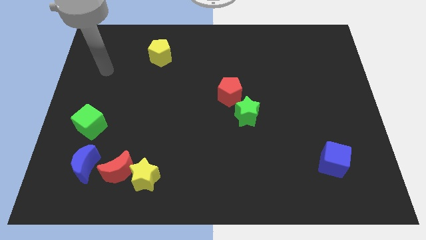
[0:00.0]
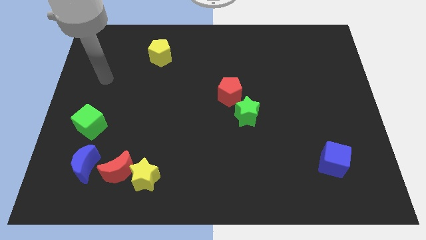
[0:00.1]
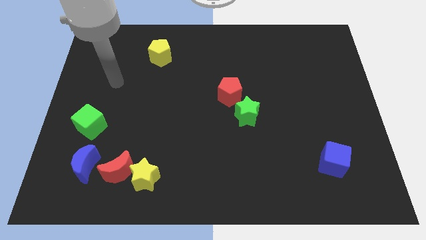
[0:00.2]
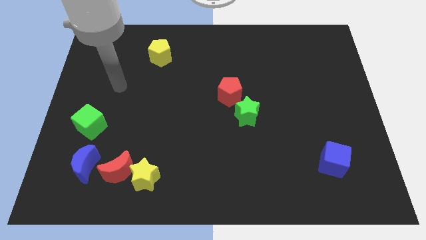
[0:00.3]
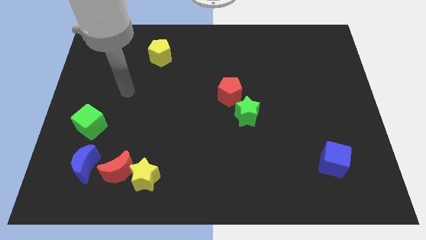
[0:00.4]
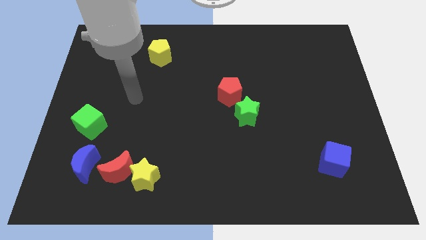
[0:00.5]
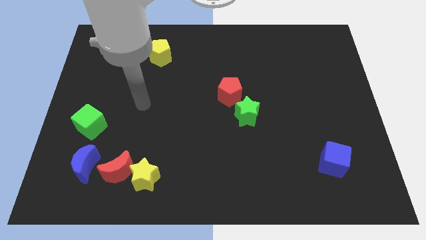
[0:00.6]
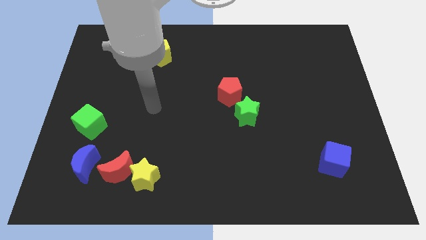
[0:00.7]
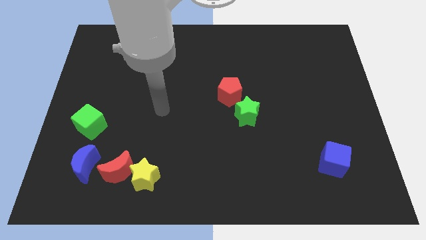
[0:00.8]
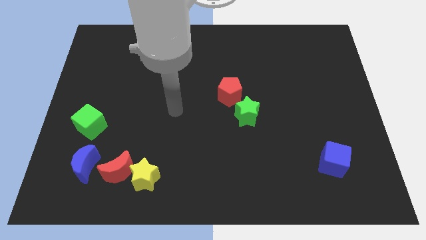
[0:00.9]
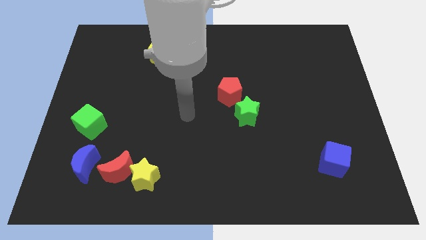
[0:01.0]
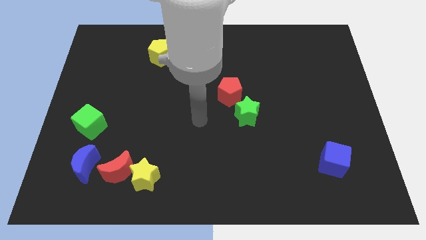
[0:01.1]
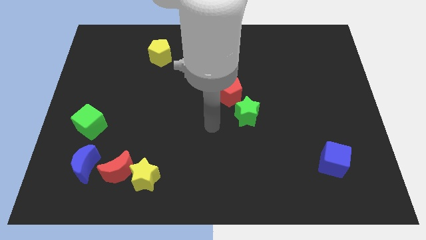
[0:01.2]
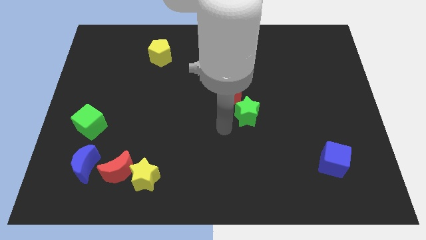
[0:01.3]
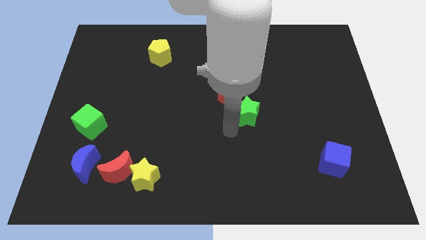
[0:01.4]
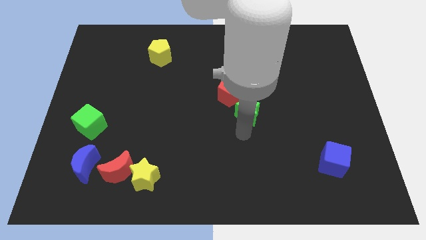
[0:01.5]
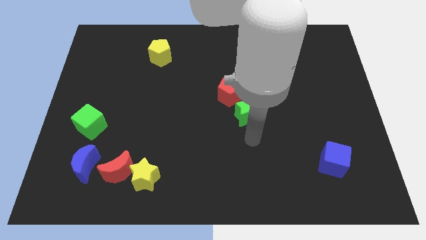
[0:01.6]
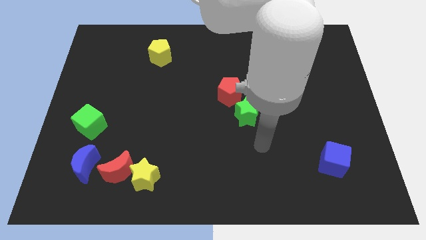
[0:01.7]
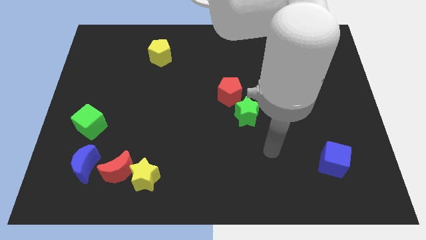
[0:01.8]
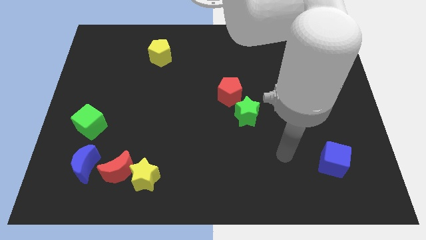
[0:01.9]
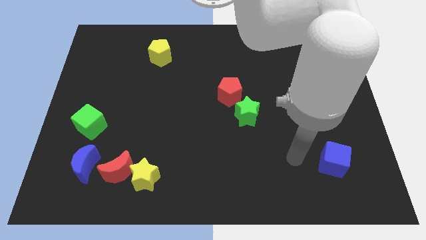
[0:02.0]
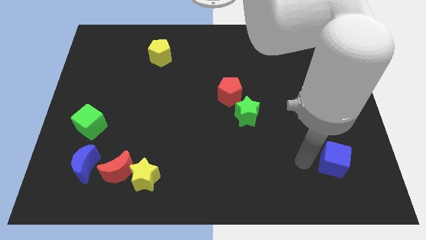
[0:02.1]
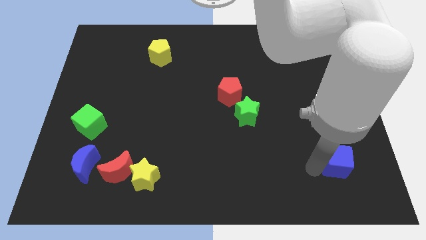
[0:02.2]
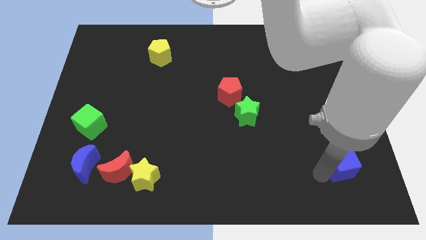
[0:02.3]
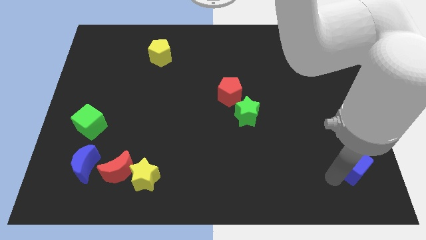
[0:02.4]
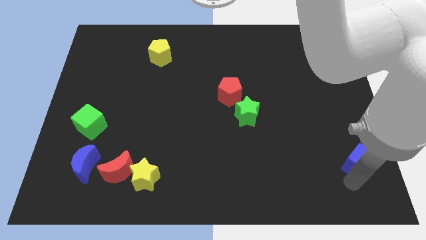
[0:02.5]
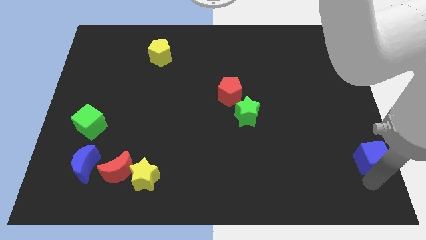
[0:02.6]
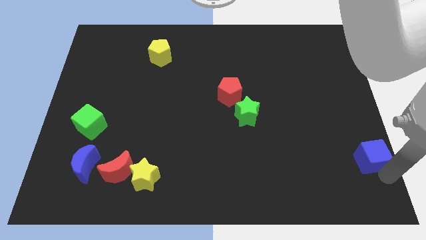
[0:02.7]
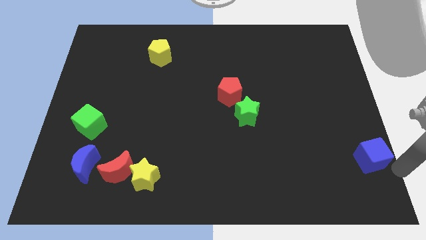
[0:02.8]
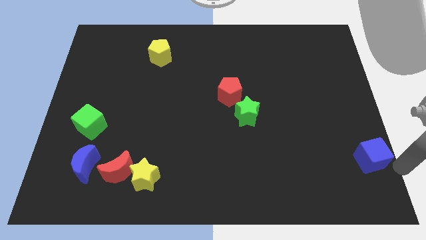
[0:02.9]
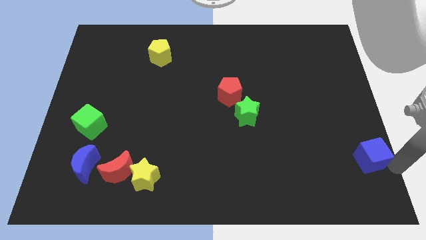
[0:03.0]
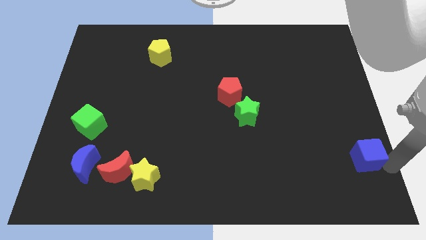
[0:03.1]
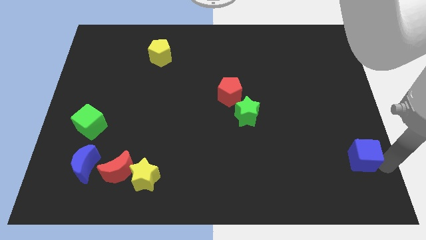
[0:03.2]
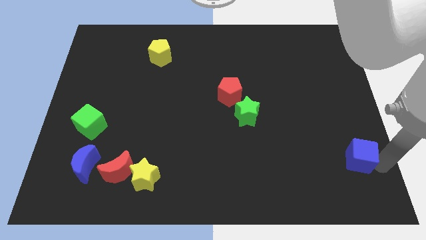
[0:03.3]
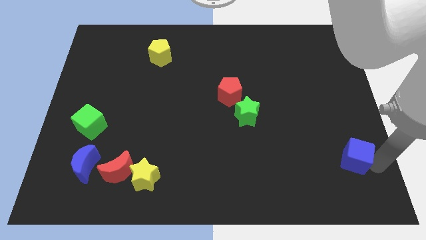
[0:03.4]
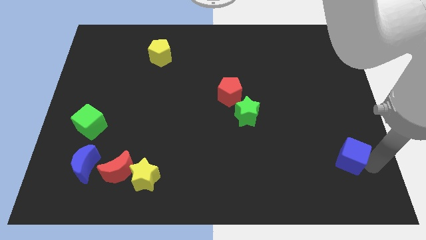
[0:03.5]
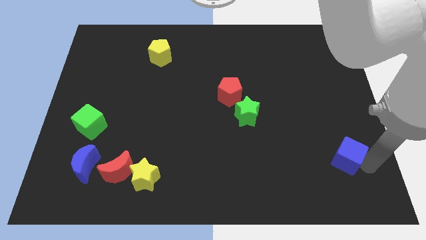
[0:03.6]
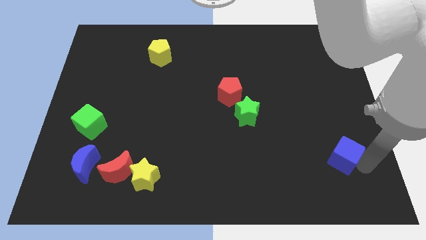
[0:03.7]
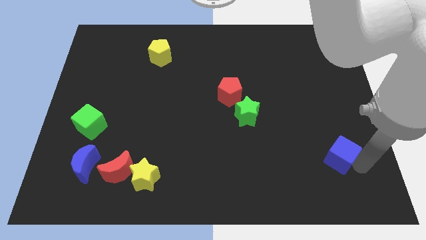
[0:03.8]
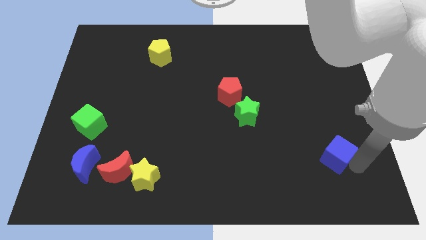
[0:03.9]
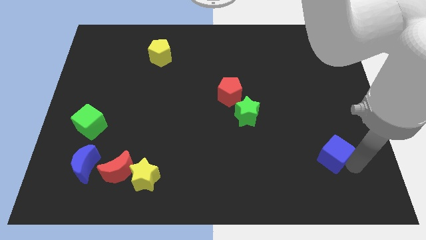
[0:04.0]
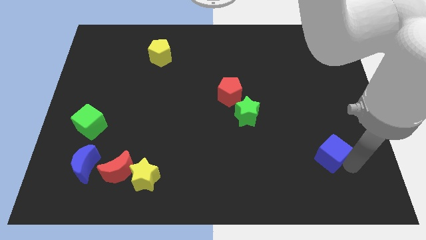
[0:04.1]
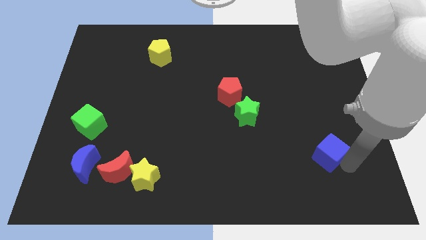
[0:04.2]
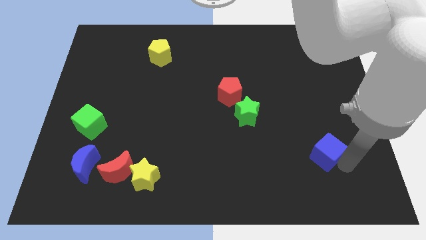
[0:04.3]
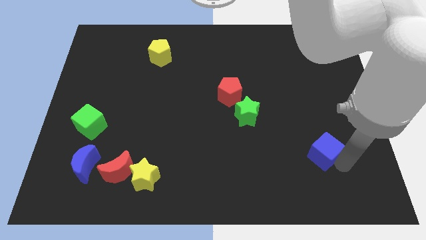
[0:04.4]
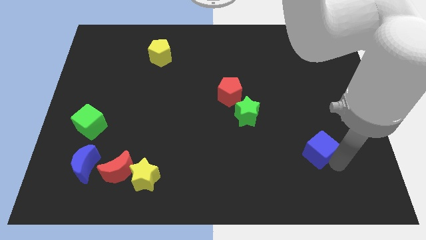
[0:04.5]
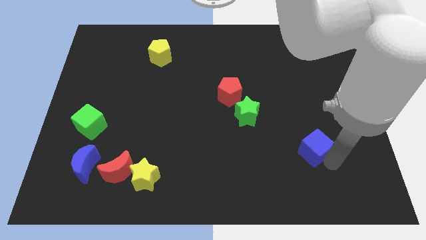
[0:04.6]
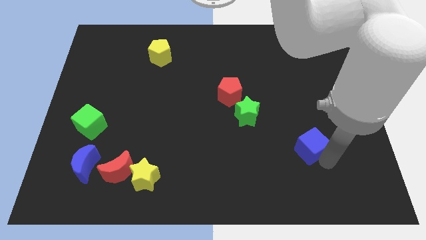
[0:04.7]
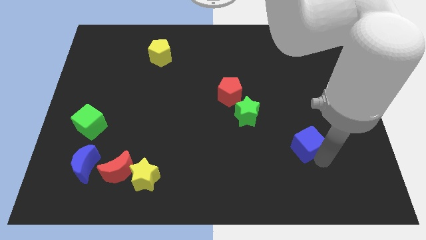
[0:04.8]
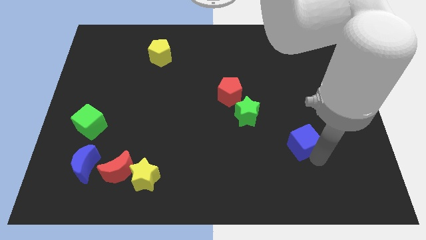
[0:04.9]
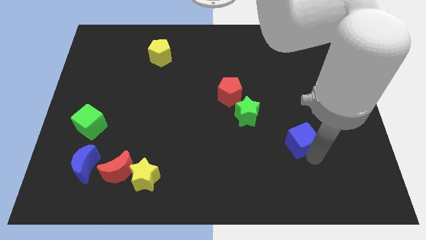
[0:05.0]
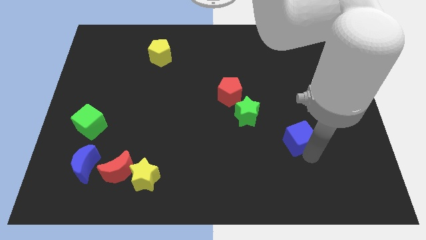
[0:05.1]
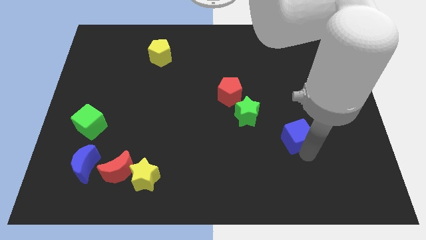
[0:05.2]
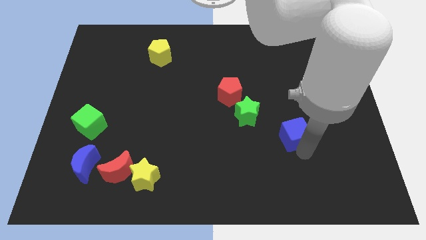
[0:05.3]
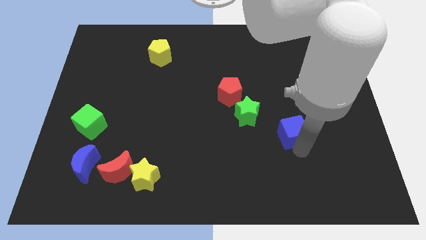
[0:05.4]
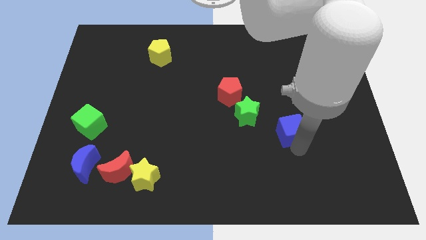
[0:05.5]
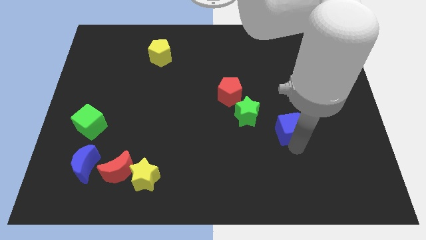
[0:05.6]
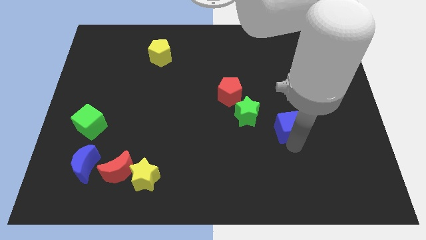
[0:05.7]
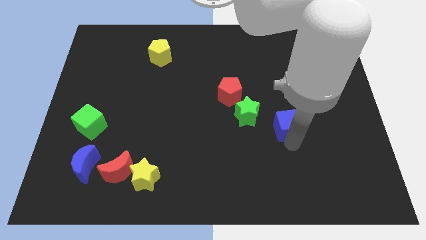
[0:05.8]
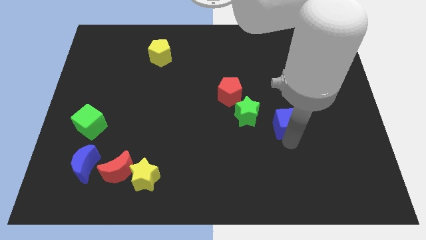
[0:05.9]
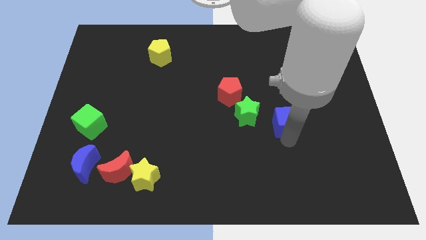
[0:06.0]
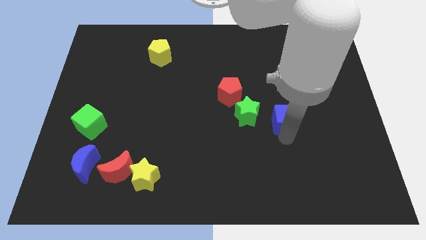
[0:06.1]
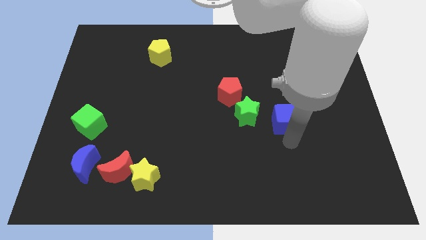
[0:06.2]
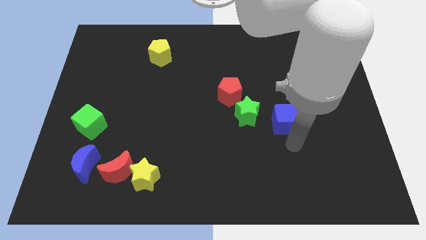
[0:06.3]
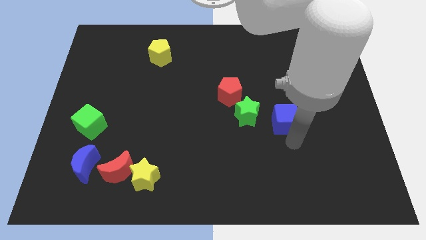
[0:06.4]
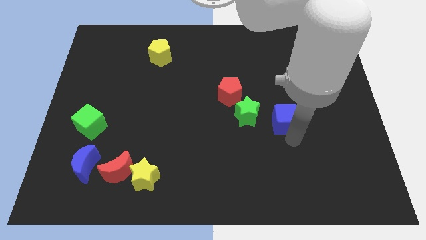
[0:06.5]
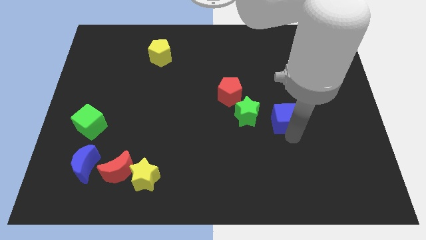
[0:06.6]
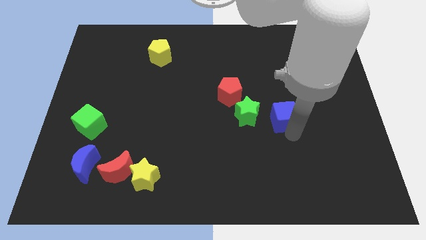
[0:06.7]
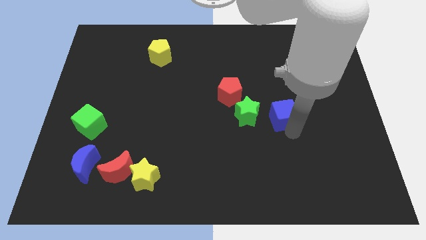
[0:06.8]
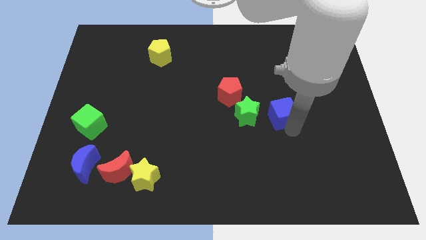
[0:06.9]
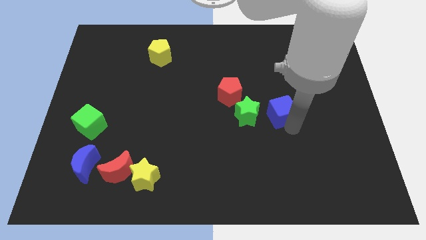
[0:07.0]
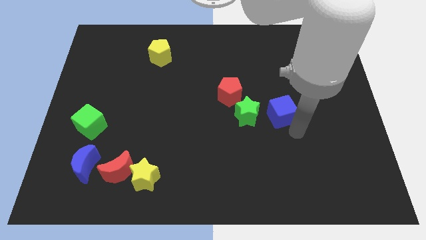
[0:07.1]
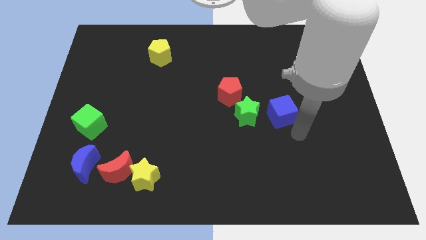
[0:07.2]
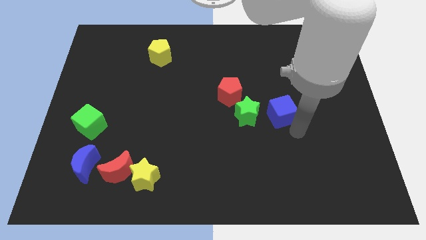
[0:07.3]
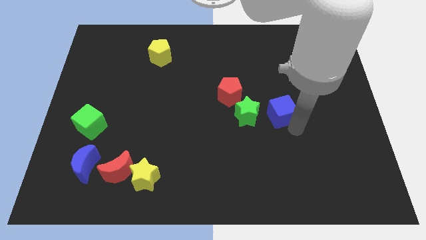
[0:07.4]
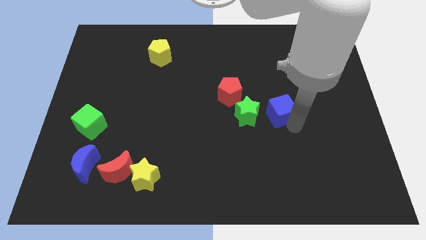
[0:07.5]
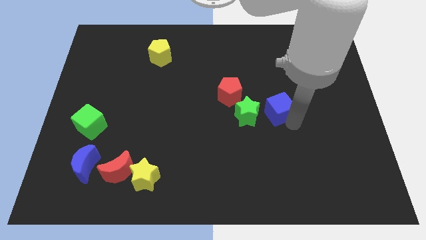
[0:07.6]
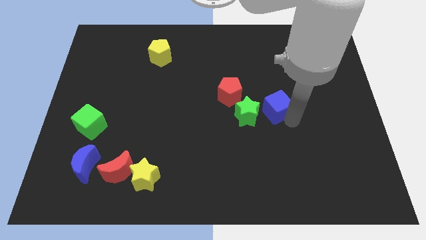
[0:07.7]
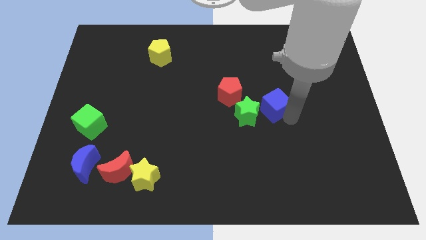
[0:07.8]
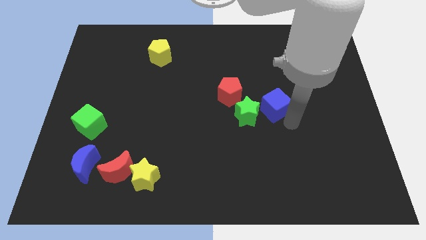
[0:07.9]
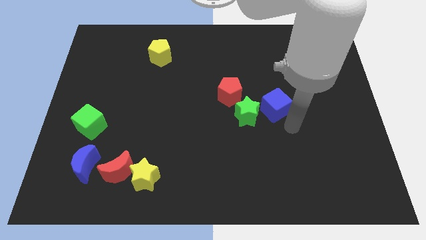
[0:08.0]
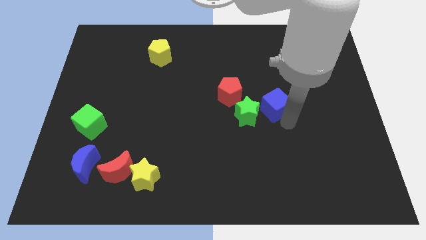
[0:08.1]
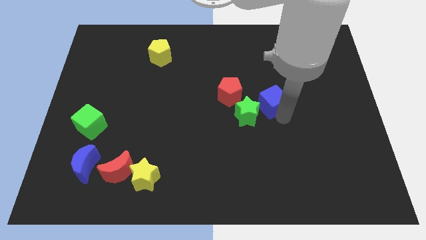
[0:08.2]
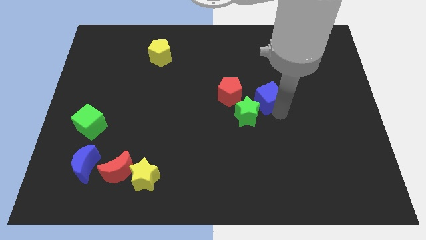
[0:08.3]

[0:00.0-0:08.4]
push the blue cube diagonally up and left
